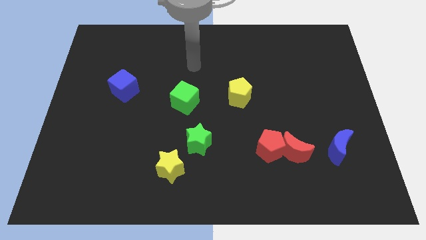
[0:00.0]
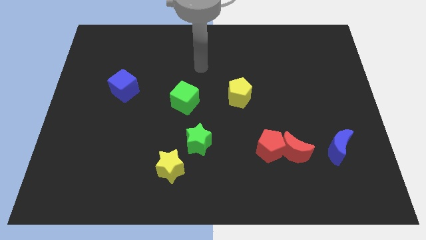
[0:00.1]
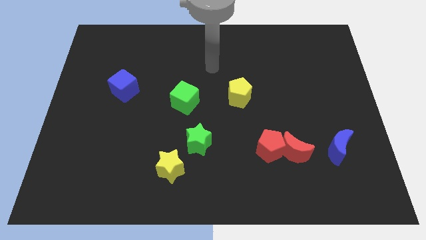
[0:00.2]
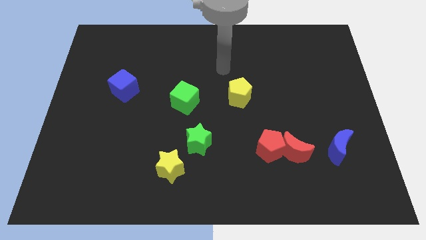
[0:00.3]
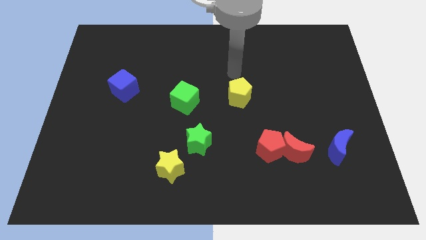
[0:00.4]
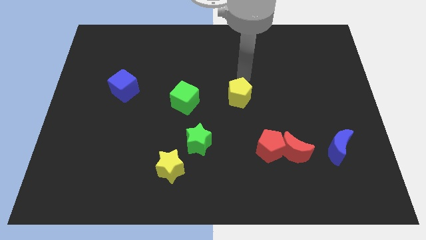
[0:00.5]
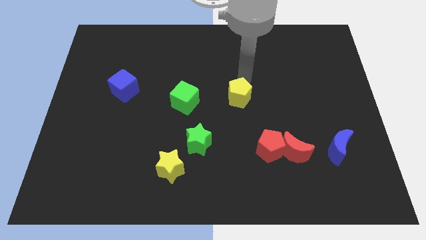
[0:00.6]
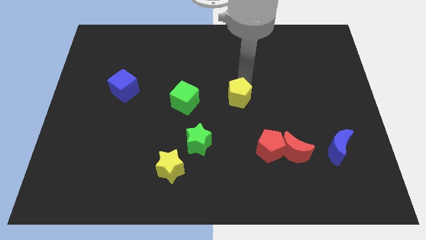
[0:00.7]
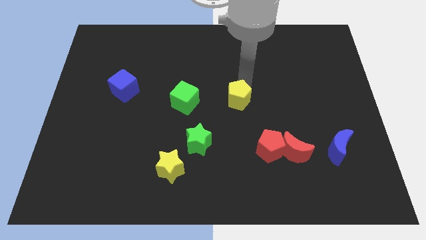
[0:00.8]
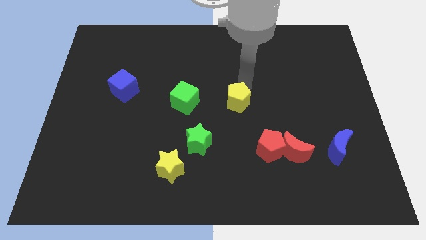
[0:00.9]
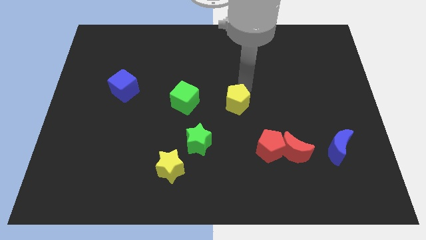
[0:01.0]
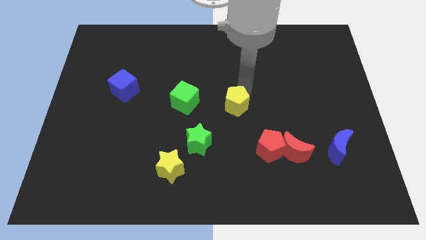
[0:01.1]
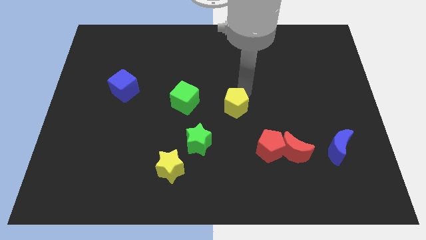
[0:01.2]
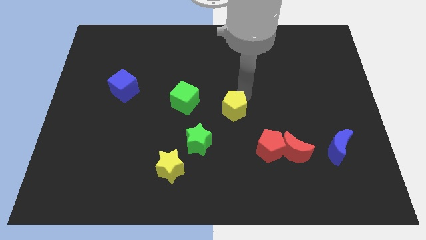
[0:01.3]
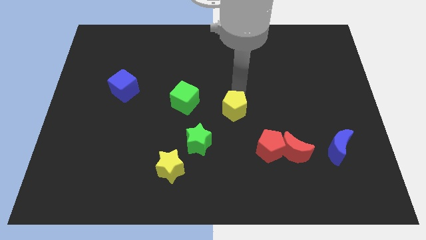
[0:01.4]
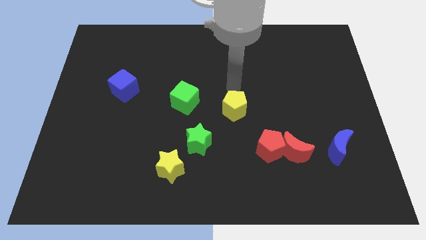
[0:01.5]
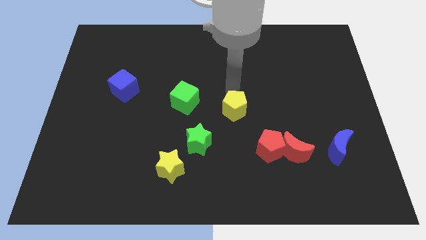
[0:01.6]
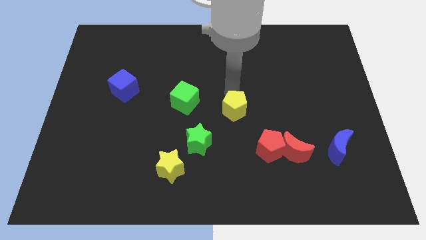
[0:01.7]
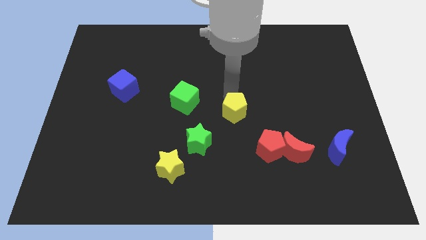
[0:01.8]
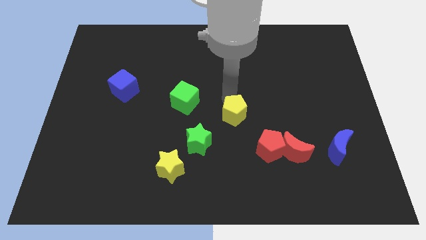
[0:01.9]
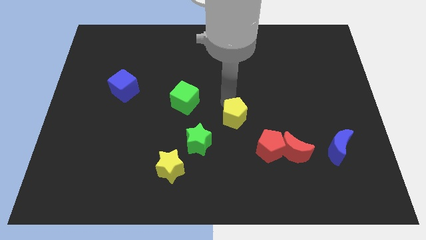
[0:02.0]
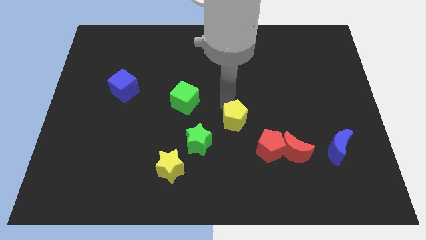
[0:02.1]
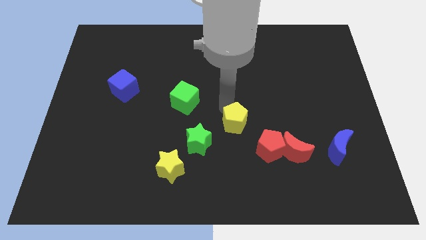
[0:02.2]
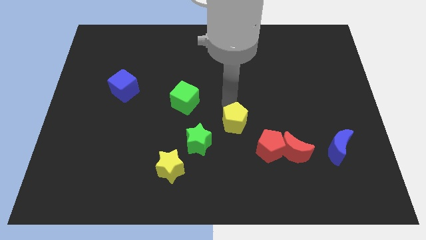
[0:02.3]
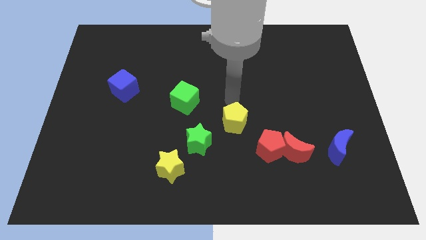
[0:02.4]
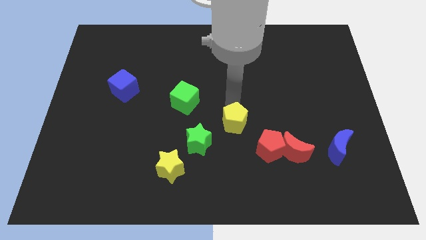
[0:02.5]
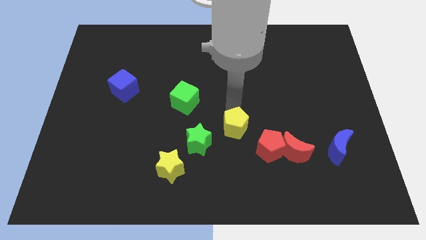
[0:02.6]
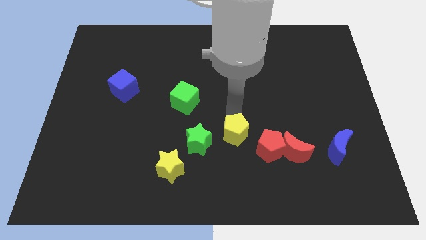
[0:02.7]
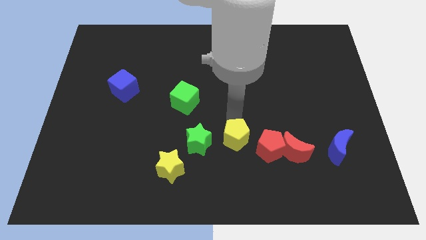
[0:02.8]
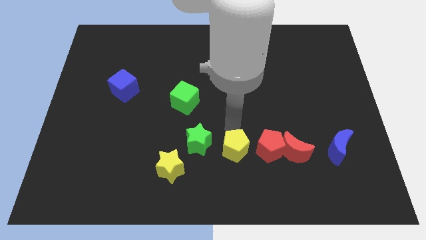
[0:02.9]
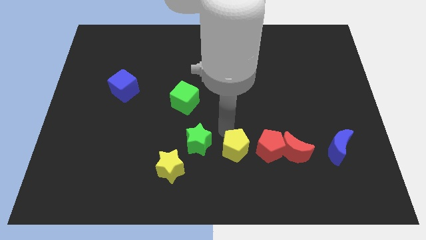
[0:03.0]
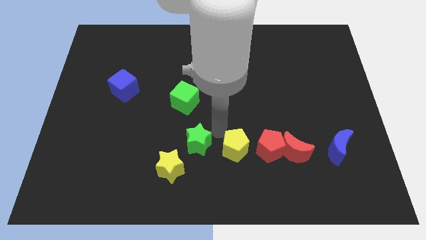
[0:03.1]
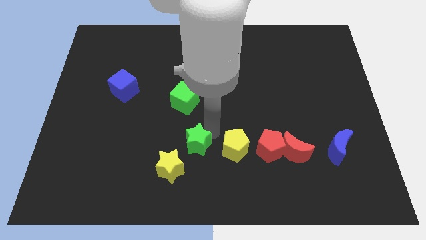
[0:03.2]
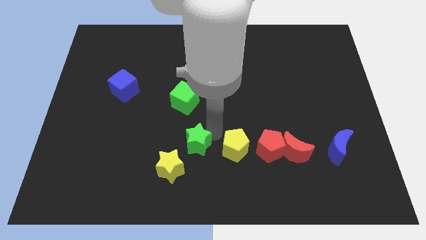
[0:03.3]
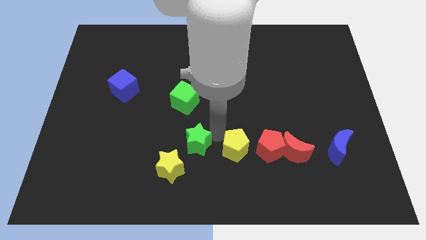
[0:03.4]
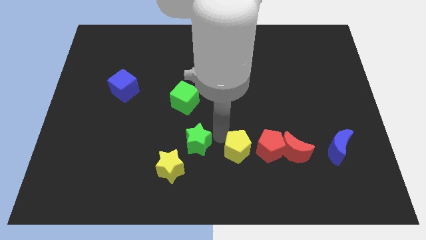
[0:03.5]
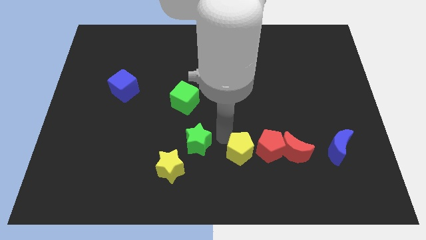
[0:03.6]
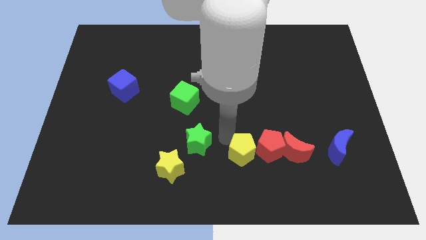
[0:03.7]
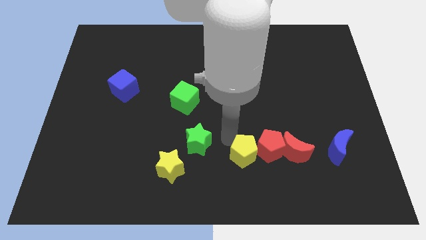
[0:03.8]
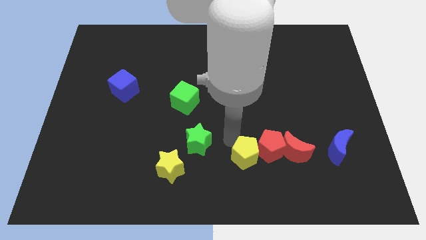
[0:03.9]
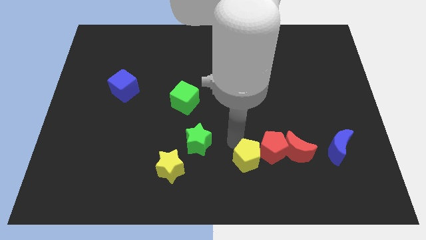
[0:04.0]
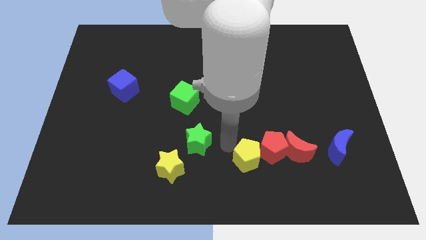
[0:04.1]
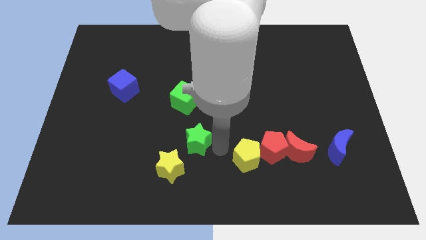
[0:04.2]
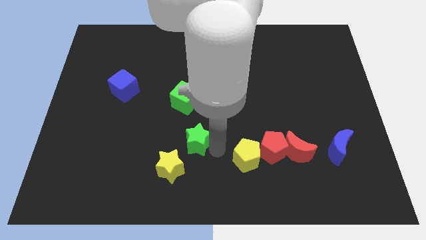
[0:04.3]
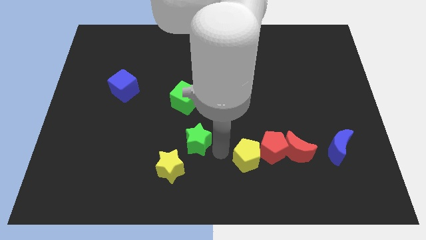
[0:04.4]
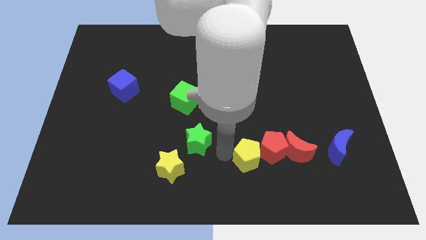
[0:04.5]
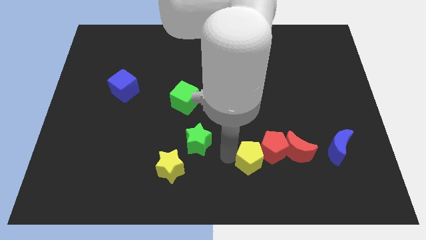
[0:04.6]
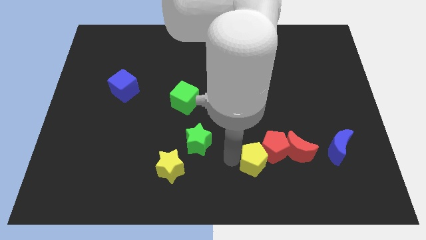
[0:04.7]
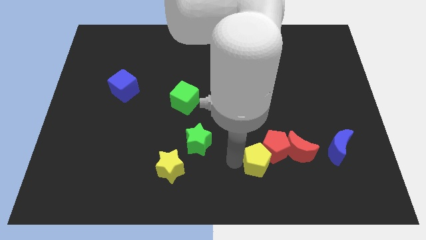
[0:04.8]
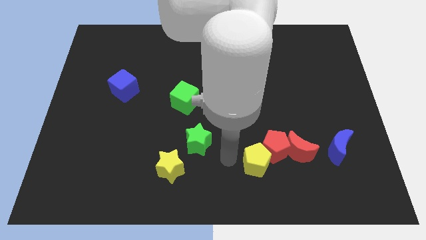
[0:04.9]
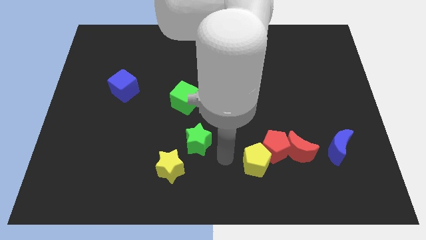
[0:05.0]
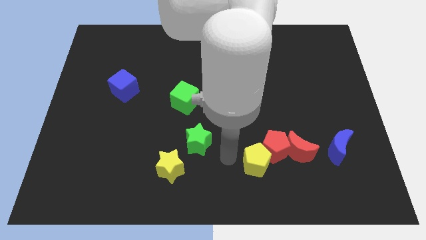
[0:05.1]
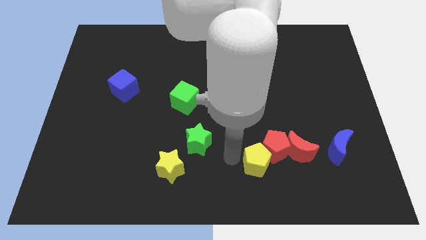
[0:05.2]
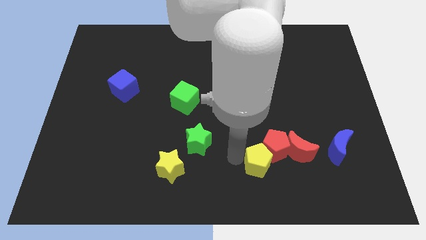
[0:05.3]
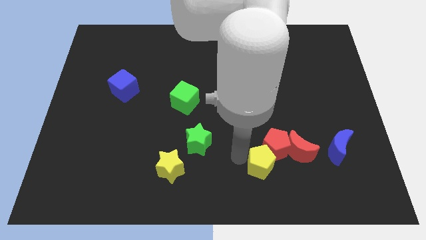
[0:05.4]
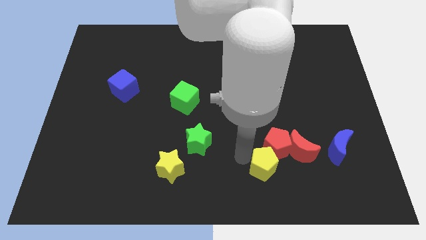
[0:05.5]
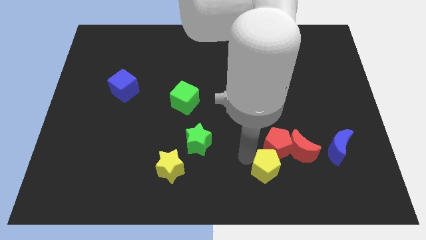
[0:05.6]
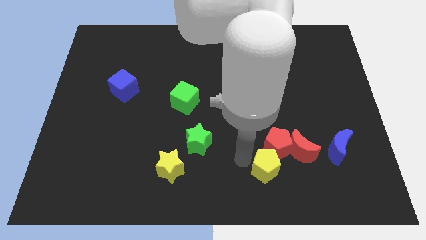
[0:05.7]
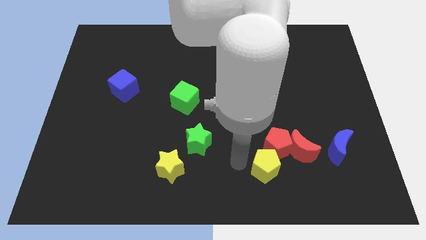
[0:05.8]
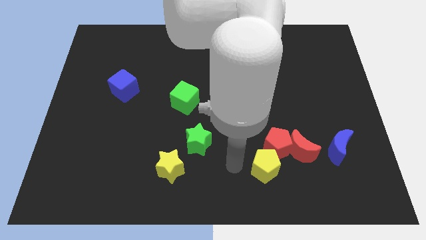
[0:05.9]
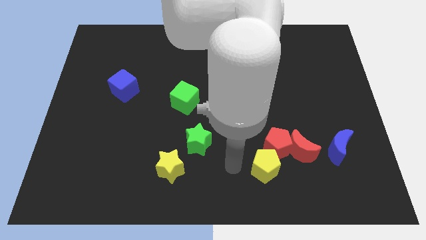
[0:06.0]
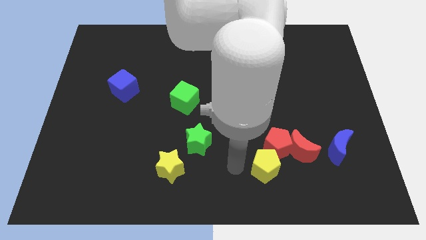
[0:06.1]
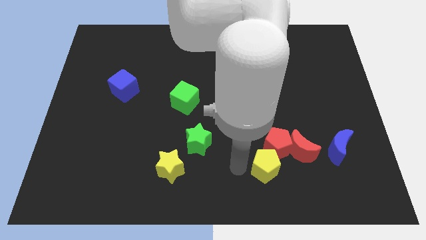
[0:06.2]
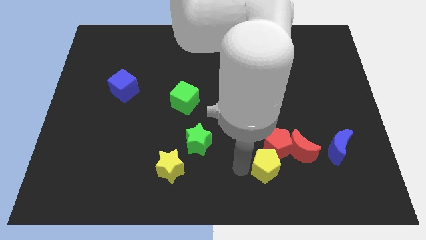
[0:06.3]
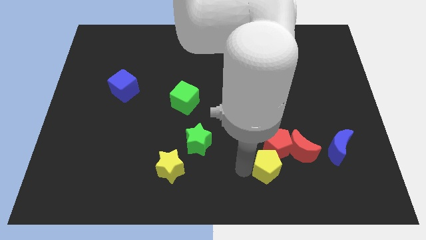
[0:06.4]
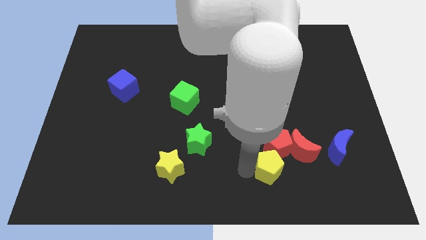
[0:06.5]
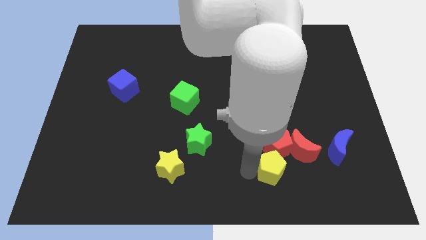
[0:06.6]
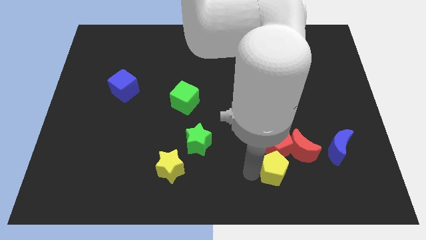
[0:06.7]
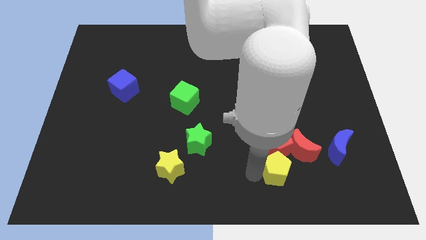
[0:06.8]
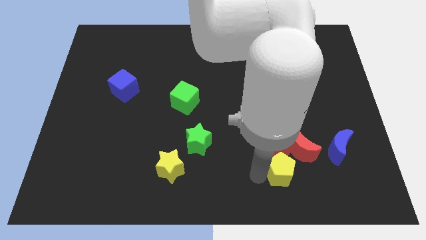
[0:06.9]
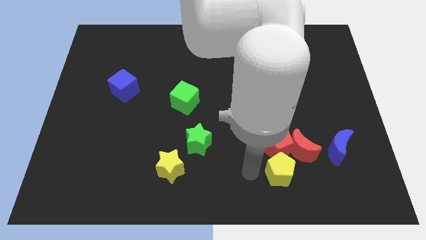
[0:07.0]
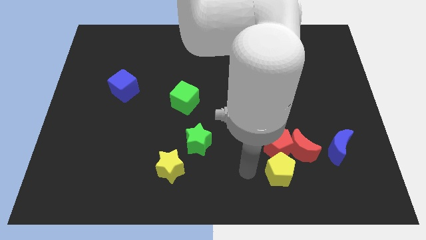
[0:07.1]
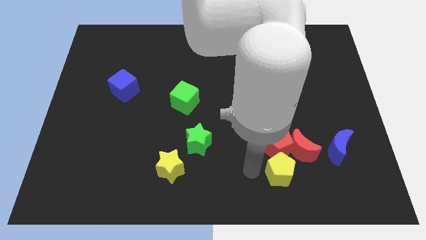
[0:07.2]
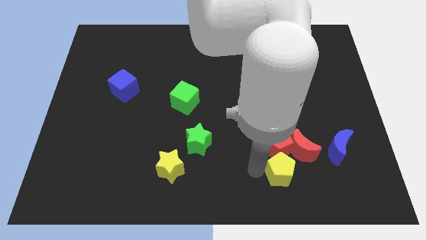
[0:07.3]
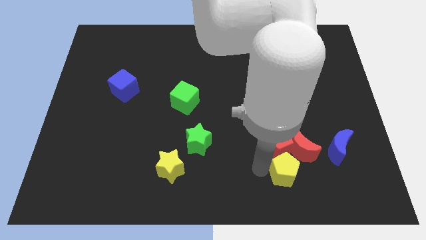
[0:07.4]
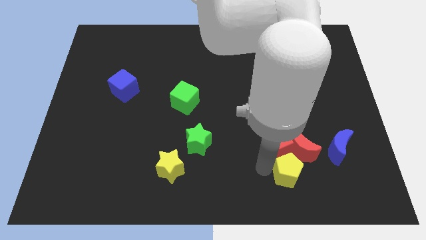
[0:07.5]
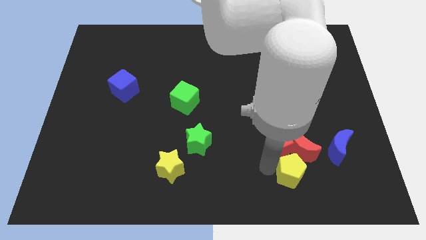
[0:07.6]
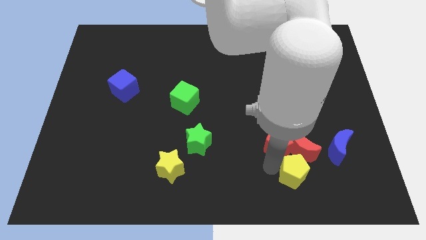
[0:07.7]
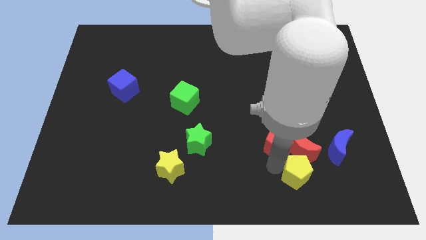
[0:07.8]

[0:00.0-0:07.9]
push the yellow pentagon diagonally downwards and right

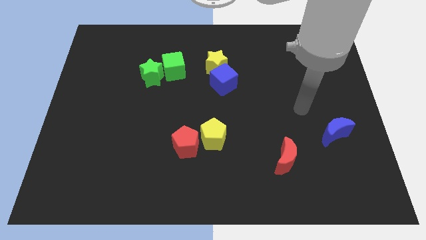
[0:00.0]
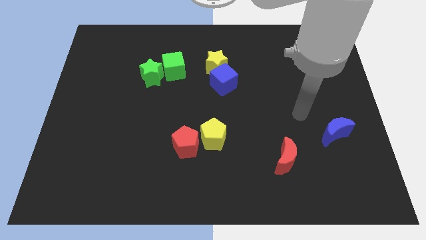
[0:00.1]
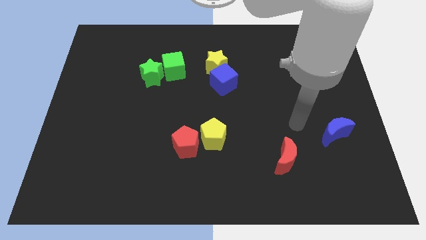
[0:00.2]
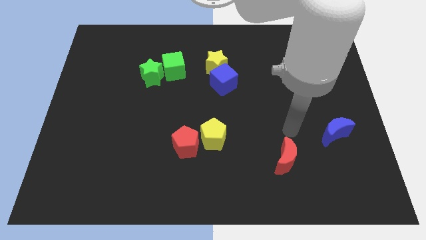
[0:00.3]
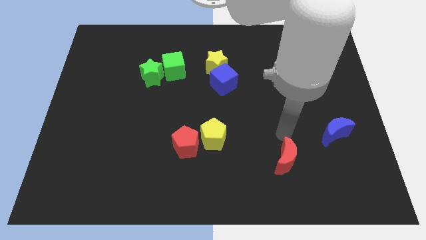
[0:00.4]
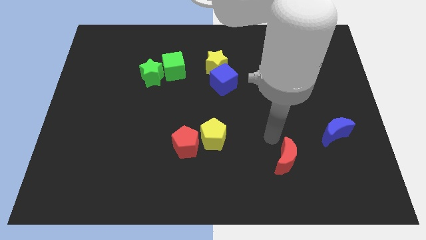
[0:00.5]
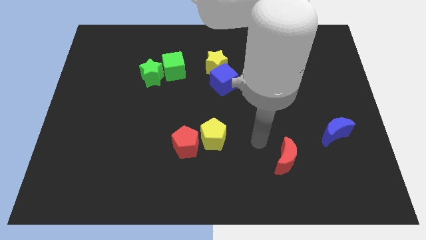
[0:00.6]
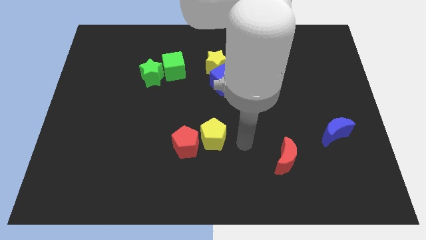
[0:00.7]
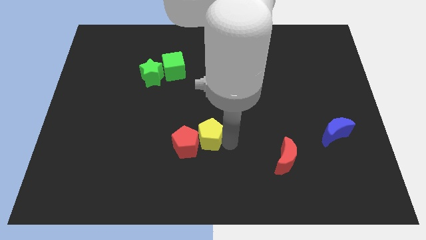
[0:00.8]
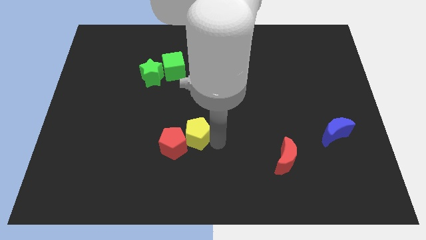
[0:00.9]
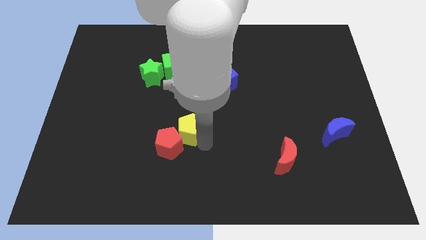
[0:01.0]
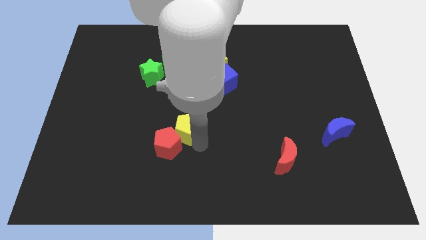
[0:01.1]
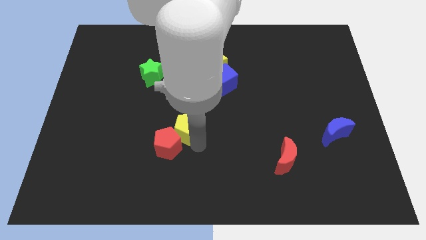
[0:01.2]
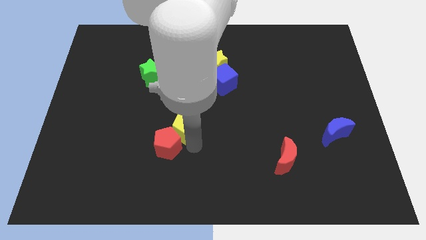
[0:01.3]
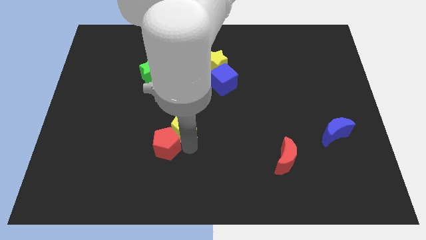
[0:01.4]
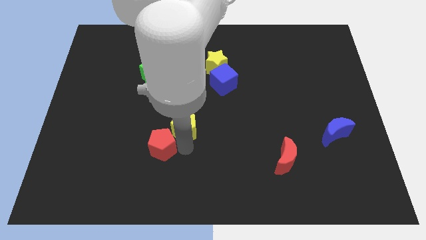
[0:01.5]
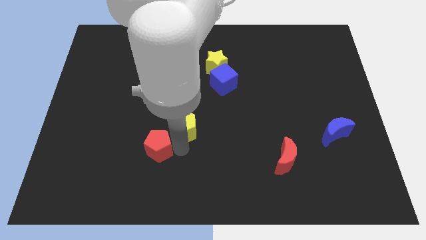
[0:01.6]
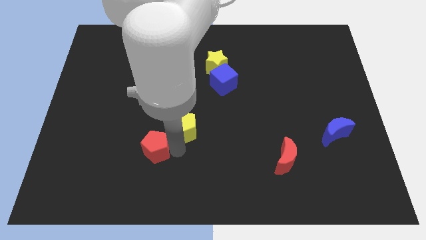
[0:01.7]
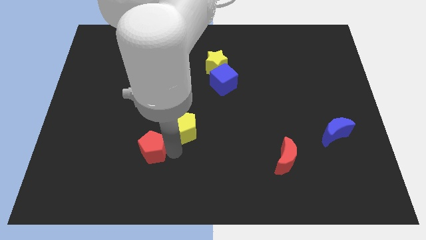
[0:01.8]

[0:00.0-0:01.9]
push the red pentagon a little to the left
